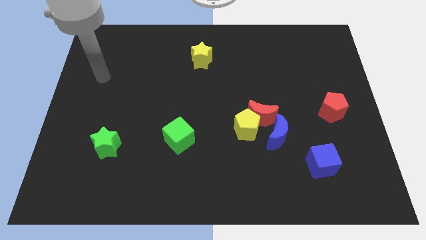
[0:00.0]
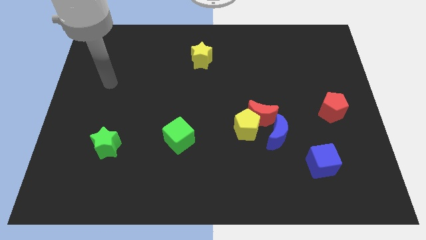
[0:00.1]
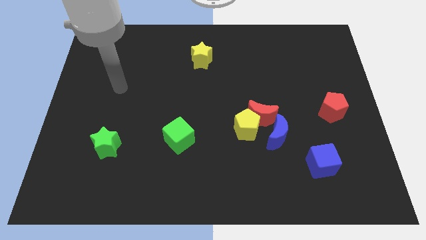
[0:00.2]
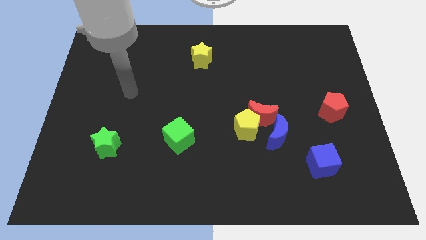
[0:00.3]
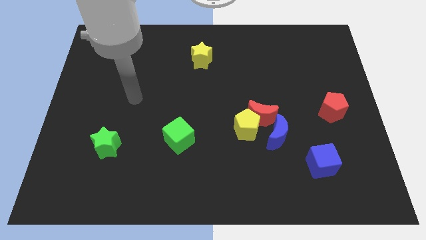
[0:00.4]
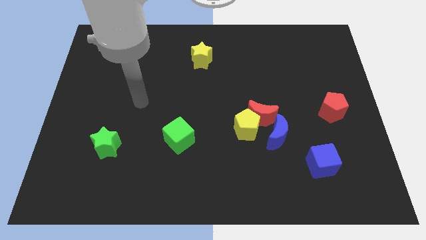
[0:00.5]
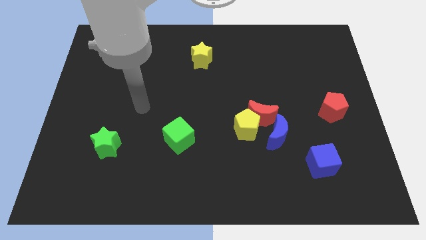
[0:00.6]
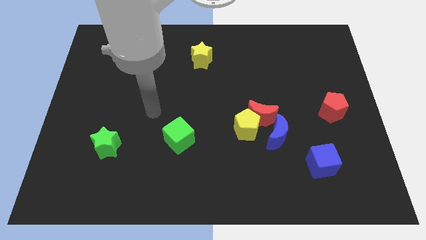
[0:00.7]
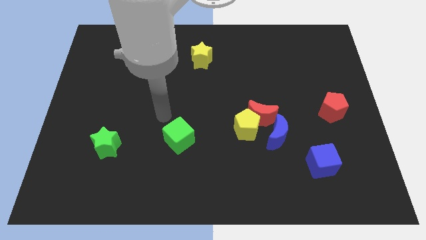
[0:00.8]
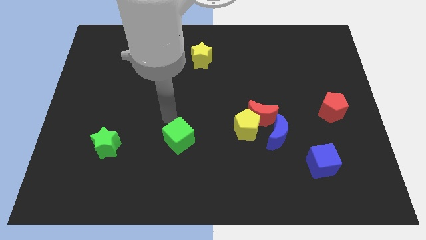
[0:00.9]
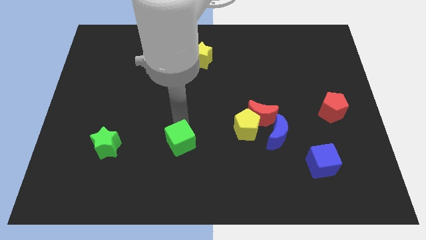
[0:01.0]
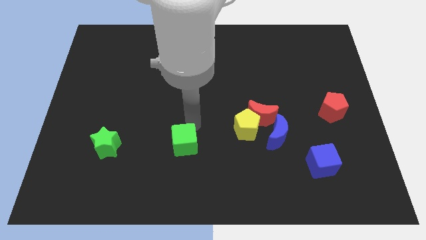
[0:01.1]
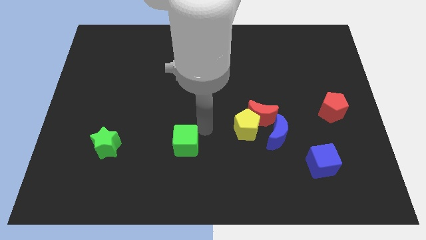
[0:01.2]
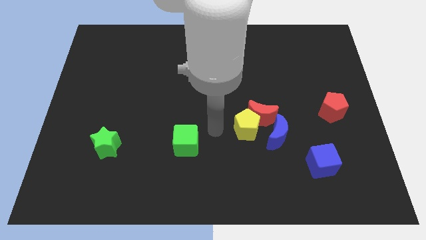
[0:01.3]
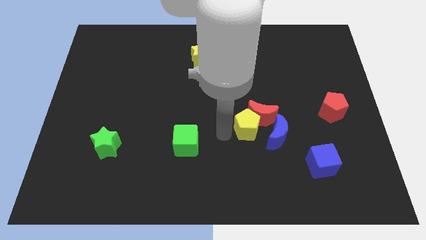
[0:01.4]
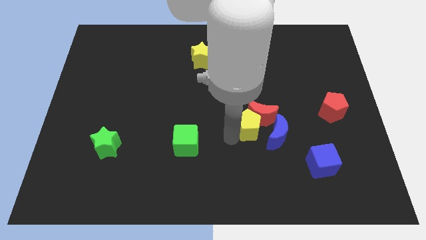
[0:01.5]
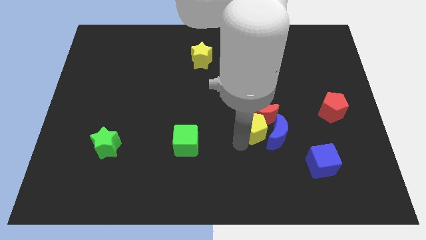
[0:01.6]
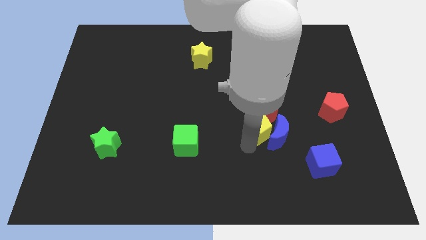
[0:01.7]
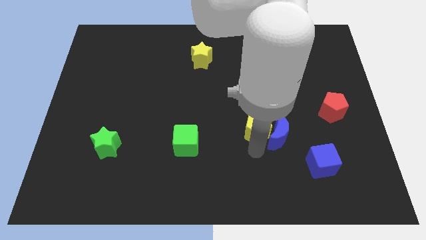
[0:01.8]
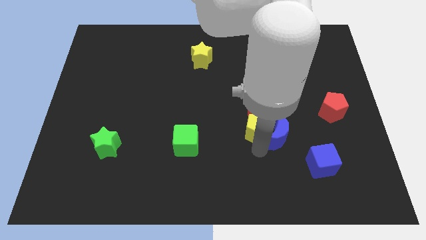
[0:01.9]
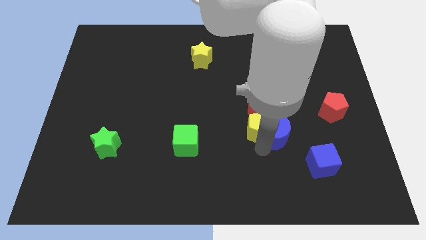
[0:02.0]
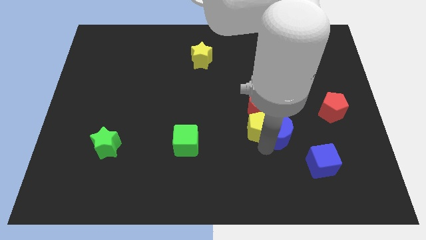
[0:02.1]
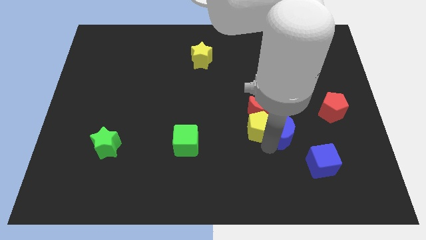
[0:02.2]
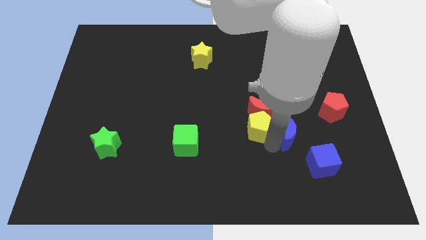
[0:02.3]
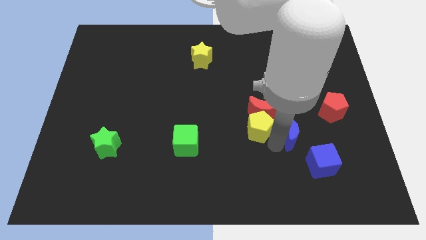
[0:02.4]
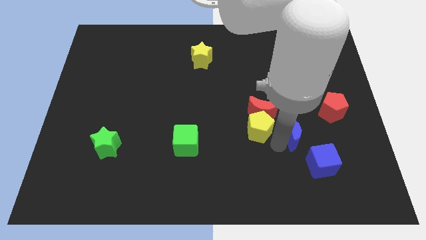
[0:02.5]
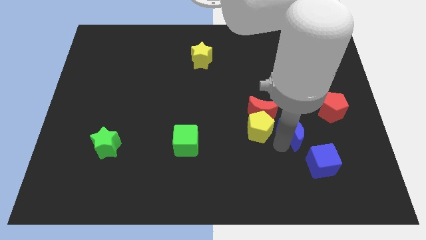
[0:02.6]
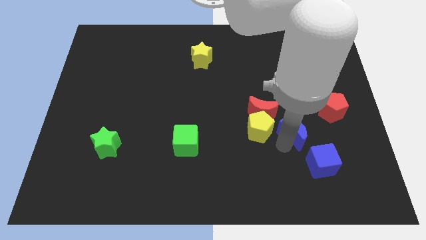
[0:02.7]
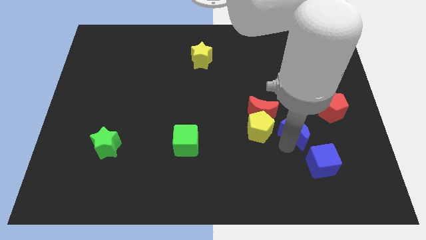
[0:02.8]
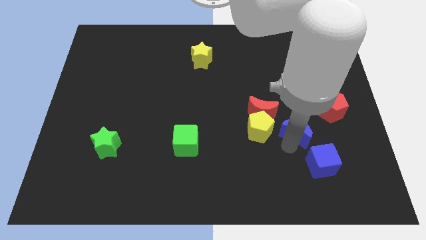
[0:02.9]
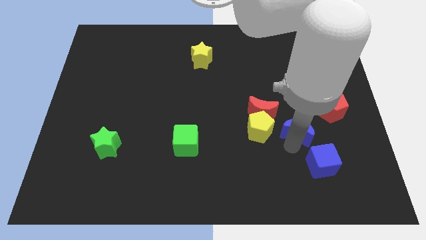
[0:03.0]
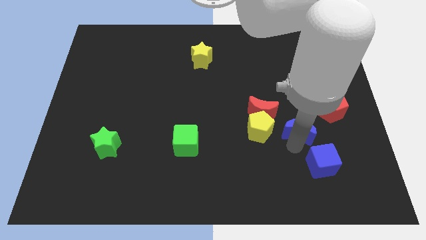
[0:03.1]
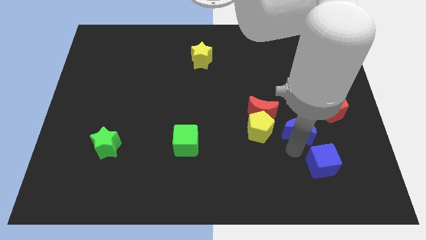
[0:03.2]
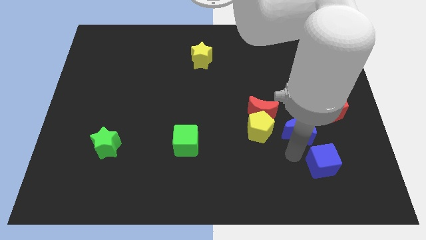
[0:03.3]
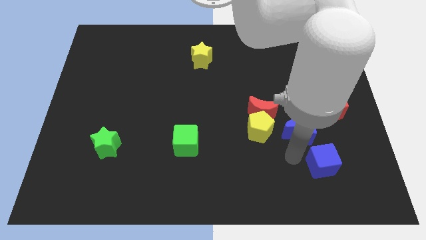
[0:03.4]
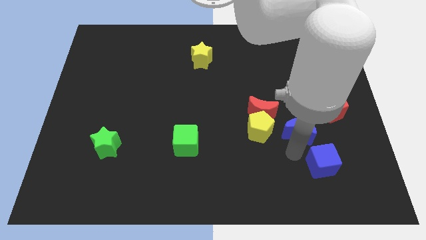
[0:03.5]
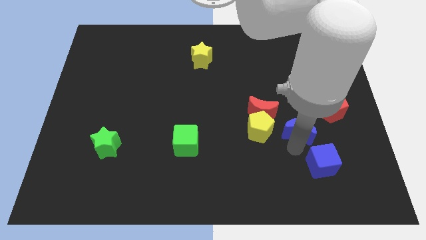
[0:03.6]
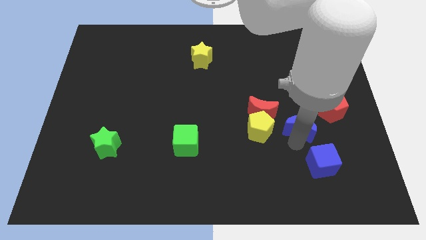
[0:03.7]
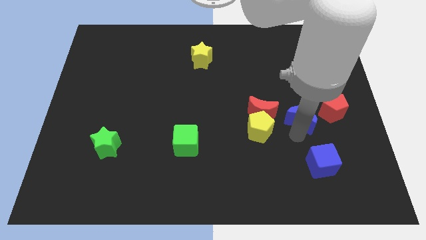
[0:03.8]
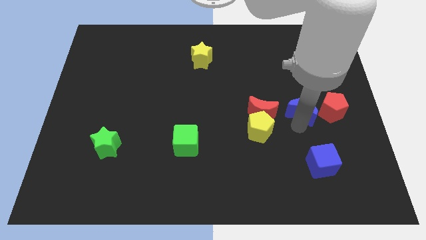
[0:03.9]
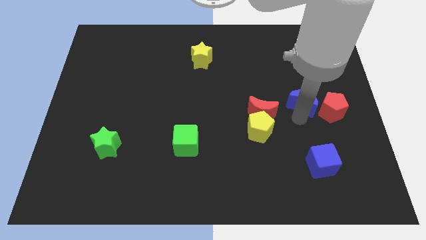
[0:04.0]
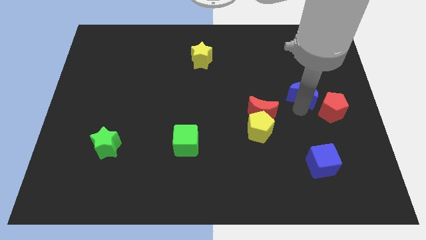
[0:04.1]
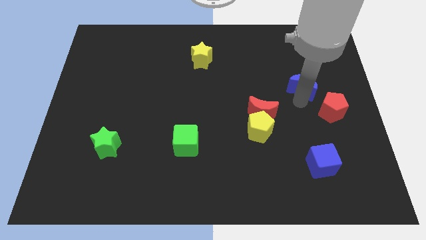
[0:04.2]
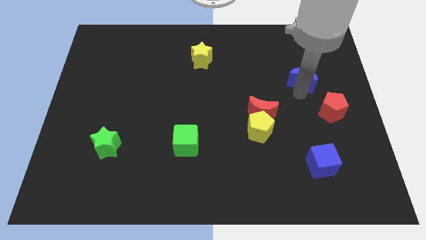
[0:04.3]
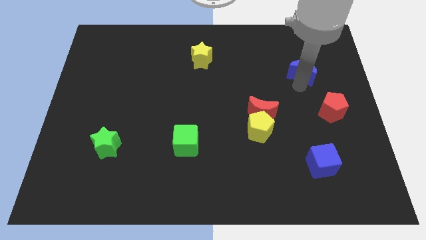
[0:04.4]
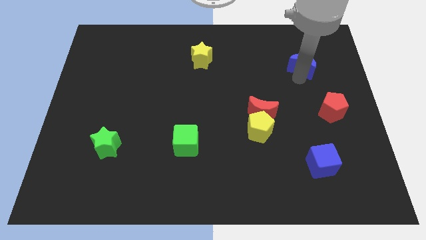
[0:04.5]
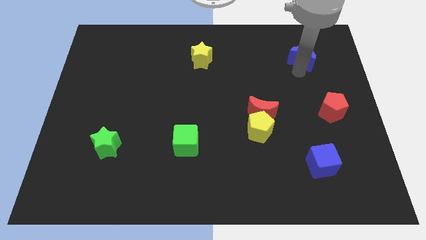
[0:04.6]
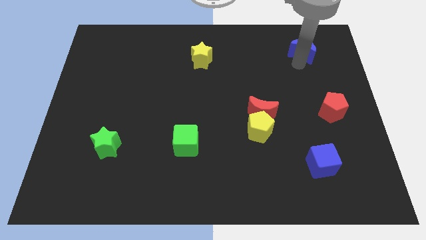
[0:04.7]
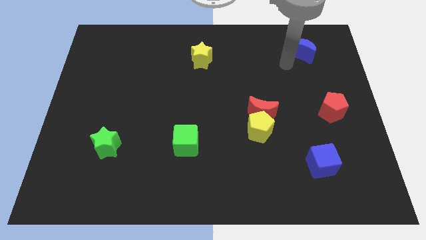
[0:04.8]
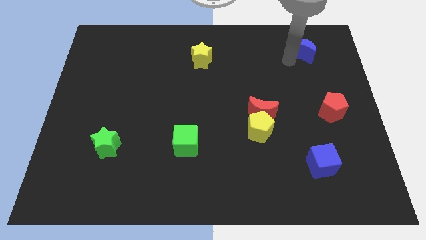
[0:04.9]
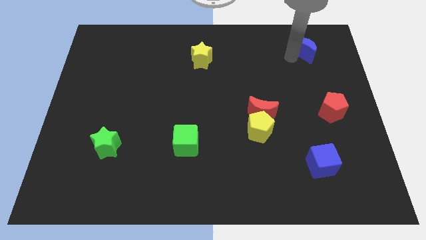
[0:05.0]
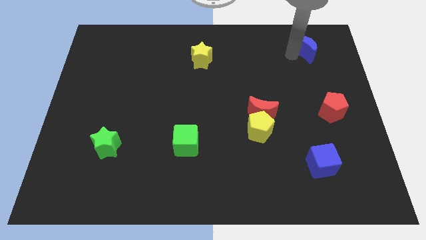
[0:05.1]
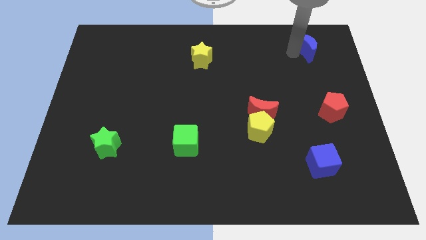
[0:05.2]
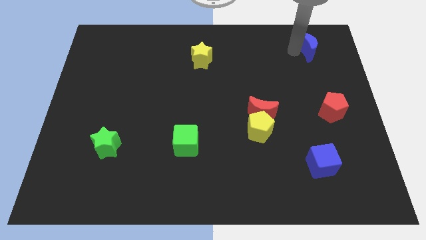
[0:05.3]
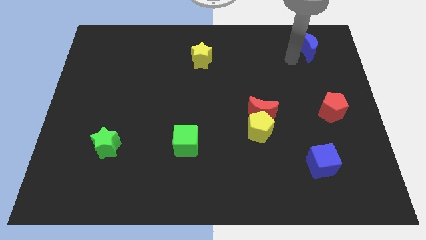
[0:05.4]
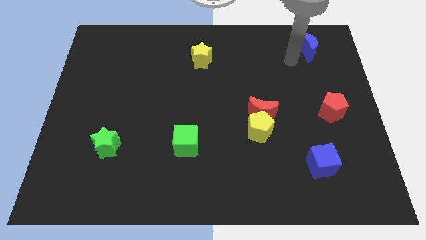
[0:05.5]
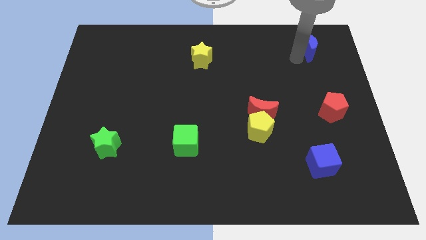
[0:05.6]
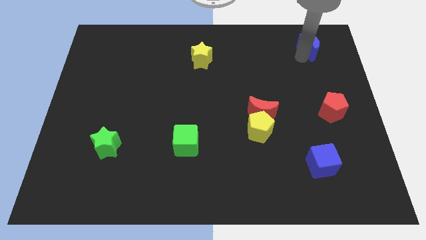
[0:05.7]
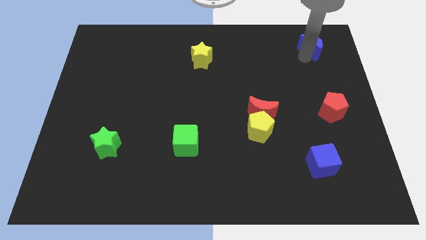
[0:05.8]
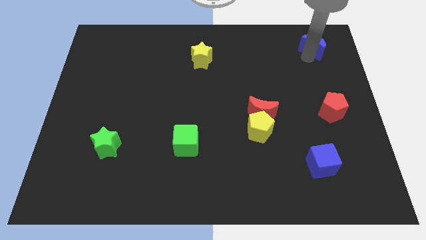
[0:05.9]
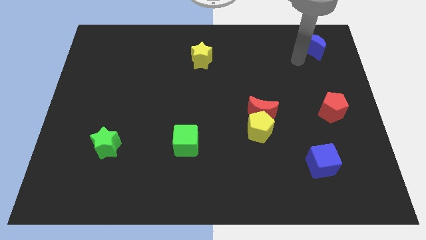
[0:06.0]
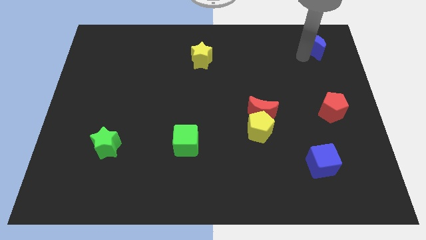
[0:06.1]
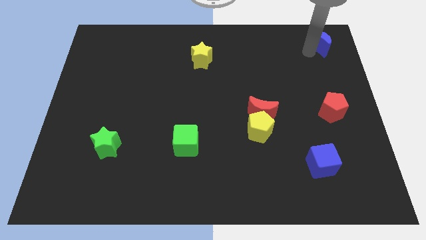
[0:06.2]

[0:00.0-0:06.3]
slide the blue moon to the upper right corner
